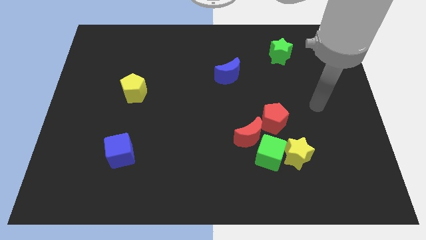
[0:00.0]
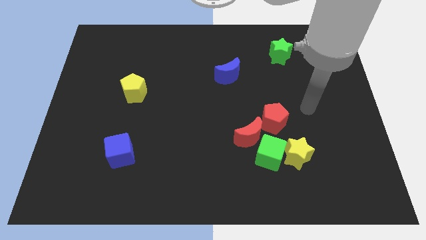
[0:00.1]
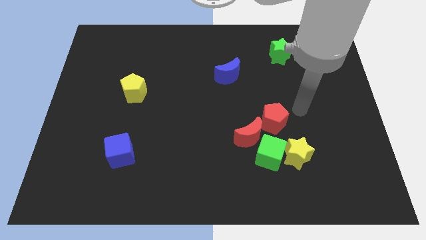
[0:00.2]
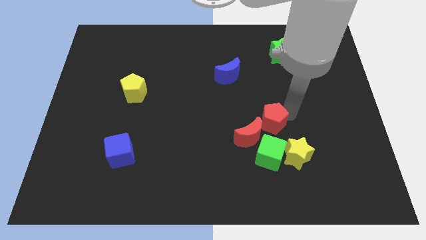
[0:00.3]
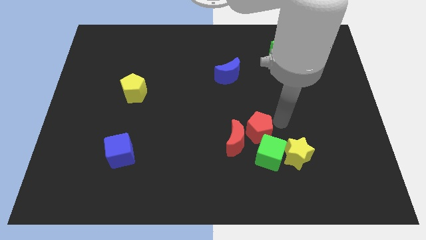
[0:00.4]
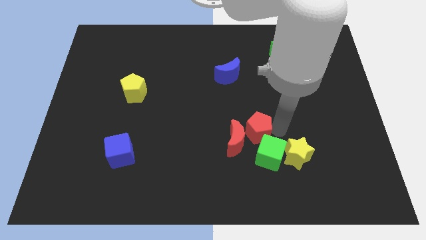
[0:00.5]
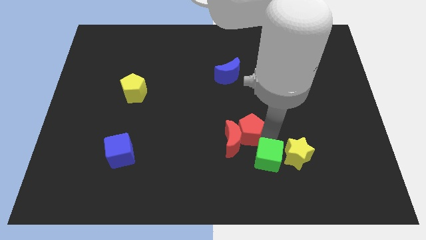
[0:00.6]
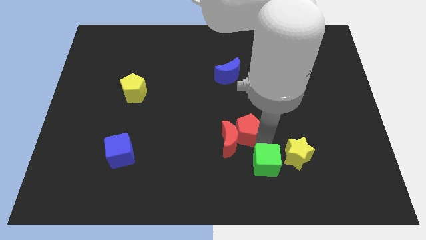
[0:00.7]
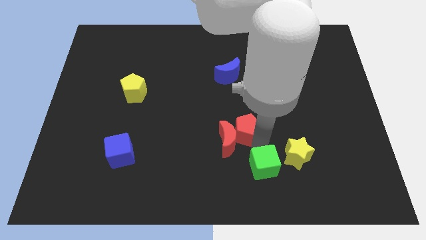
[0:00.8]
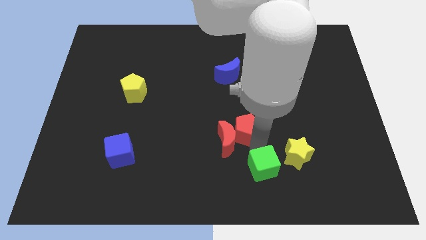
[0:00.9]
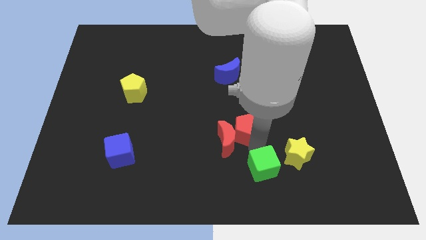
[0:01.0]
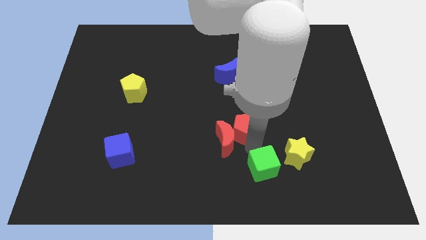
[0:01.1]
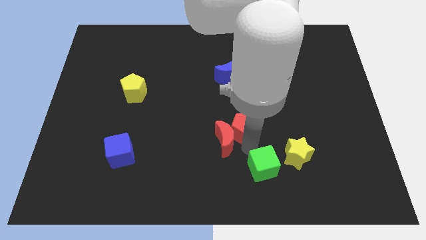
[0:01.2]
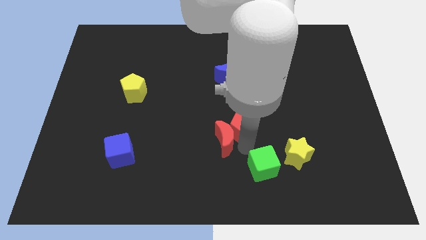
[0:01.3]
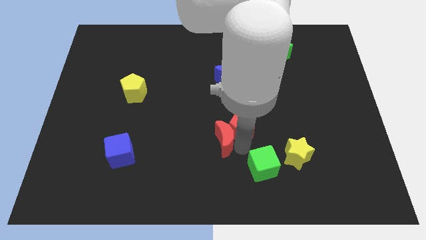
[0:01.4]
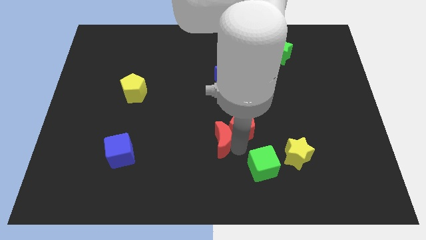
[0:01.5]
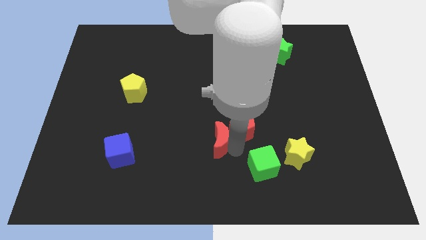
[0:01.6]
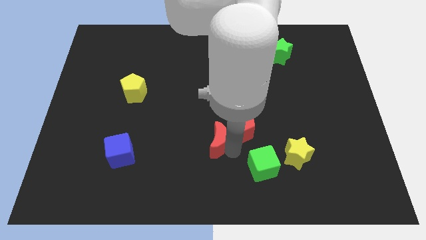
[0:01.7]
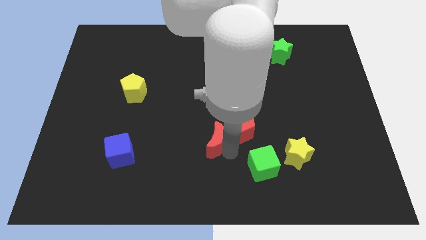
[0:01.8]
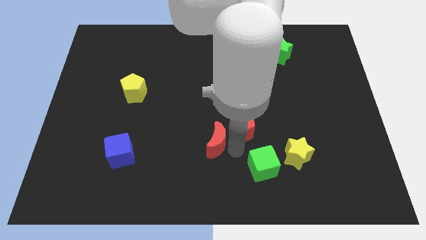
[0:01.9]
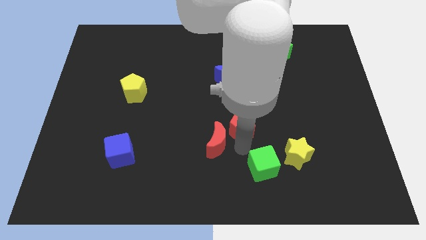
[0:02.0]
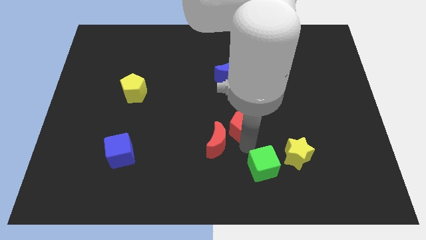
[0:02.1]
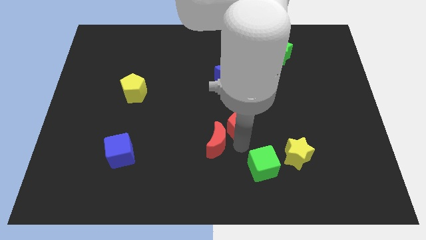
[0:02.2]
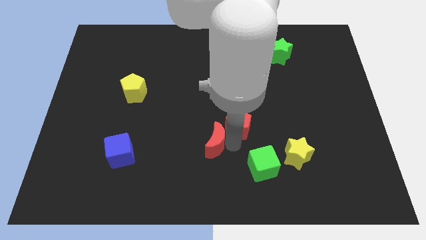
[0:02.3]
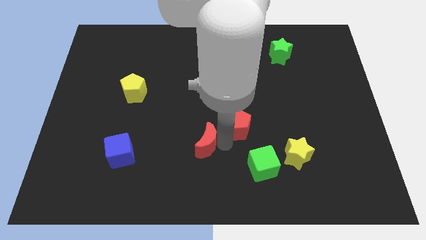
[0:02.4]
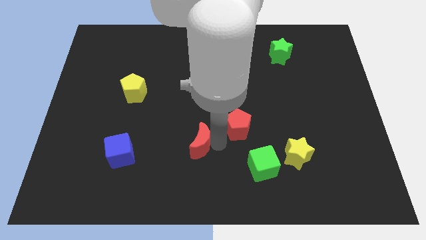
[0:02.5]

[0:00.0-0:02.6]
pull the red moon apart from the green cube and red pentagon

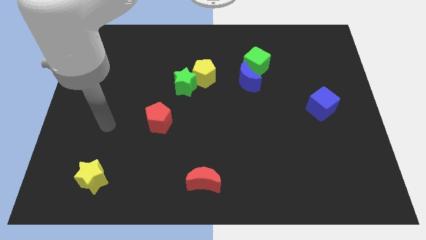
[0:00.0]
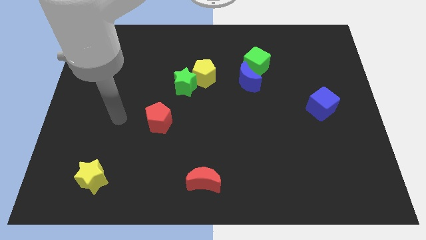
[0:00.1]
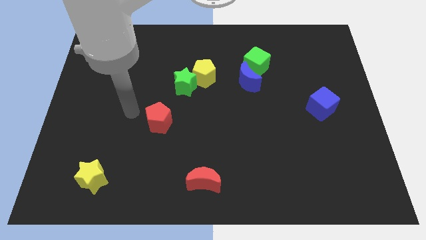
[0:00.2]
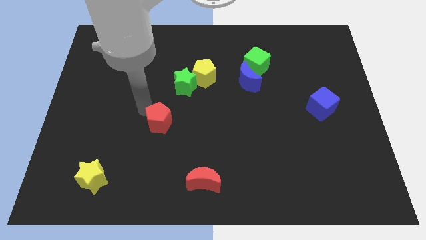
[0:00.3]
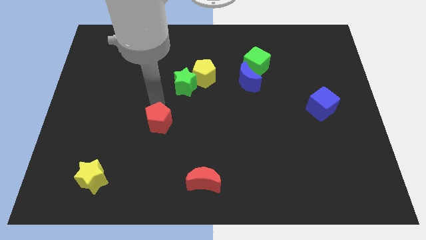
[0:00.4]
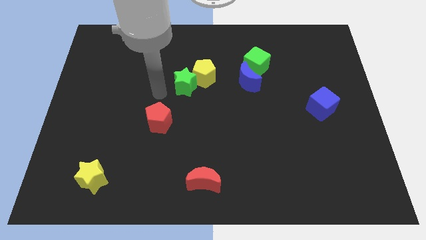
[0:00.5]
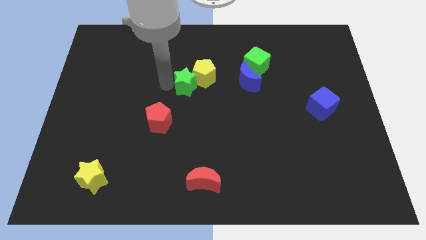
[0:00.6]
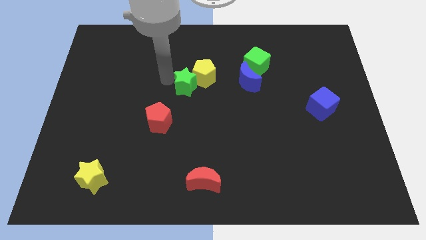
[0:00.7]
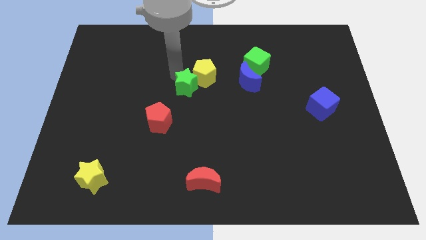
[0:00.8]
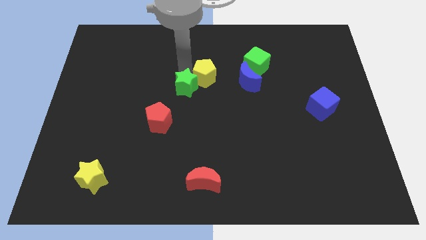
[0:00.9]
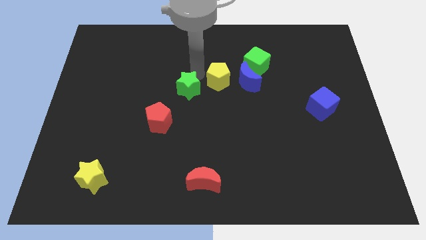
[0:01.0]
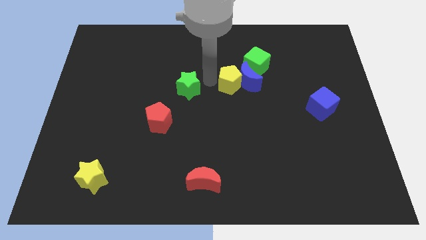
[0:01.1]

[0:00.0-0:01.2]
move the green star away from the yellow pentagon

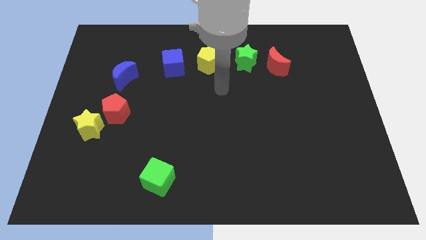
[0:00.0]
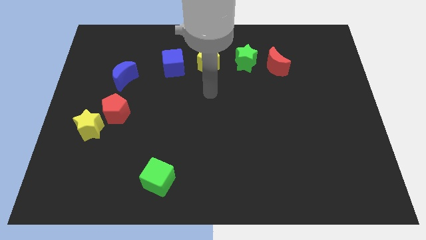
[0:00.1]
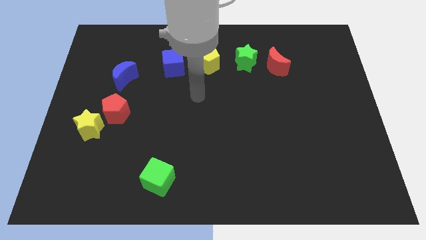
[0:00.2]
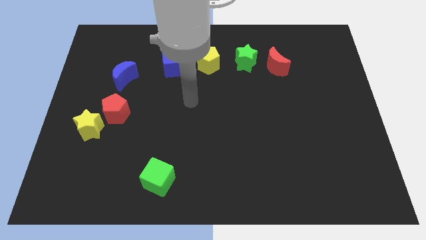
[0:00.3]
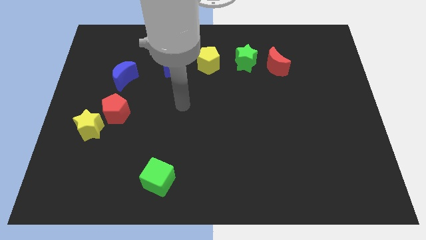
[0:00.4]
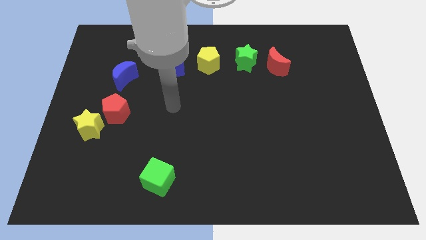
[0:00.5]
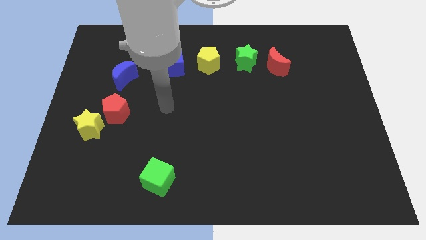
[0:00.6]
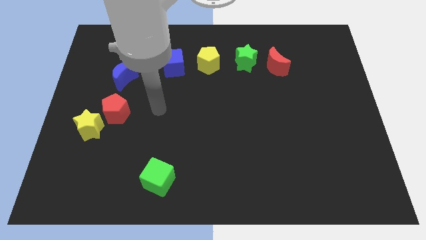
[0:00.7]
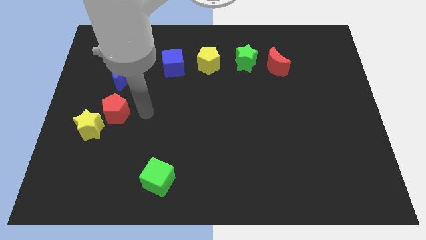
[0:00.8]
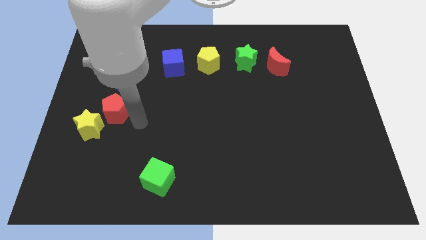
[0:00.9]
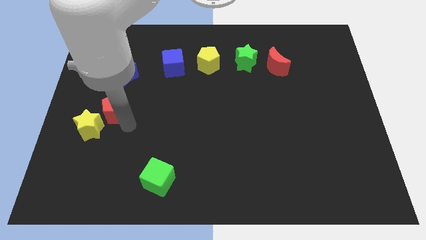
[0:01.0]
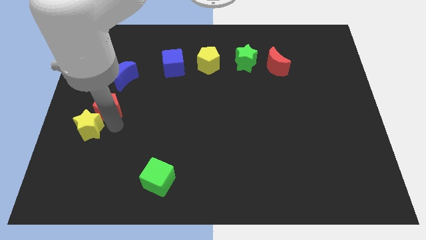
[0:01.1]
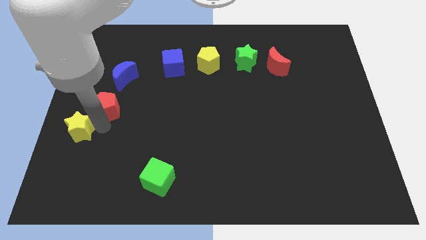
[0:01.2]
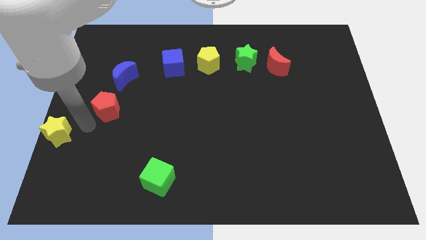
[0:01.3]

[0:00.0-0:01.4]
separate the red pentagon from the yellow star

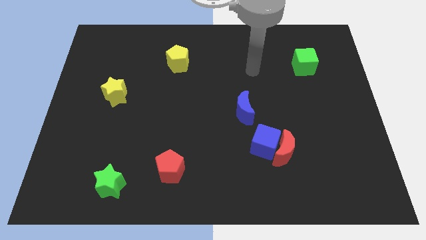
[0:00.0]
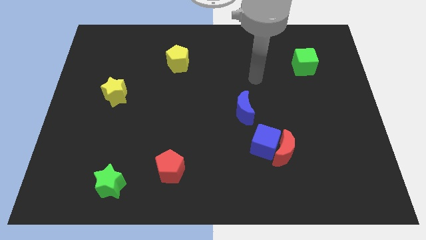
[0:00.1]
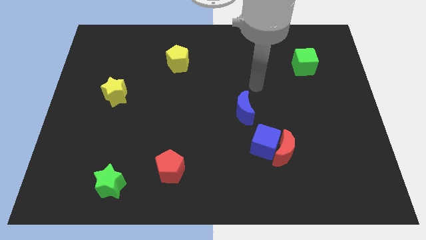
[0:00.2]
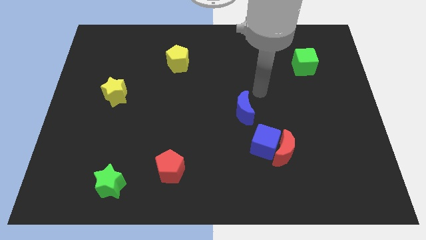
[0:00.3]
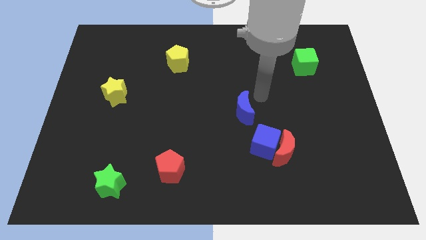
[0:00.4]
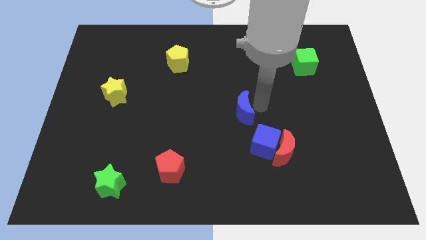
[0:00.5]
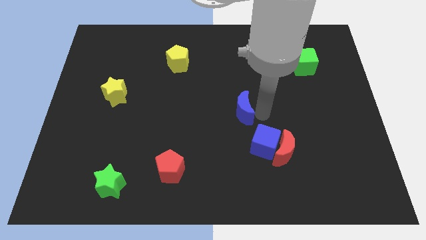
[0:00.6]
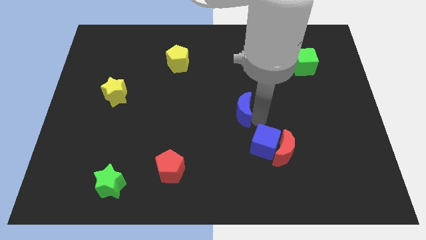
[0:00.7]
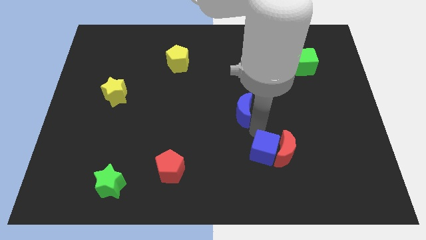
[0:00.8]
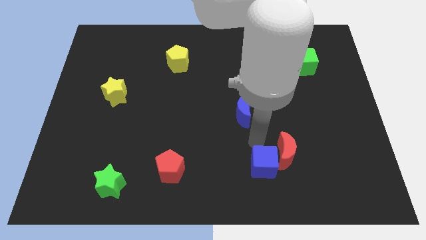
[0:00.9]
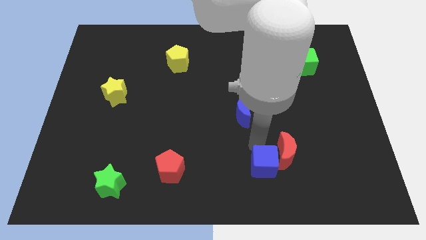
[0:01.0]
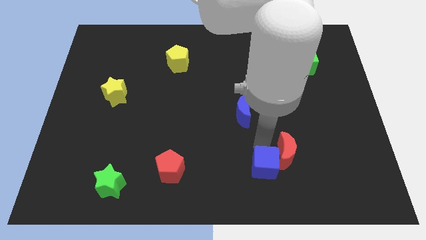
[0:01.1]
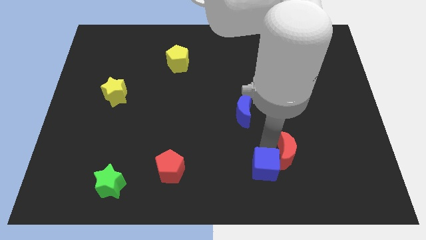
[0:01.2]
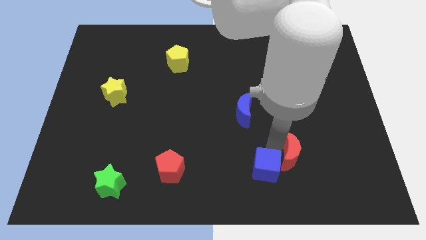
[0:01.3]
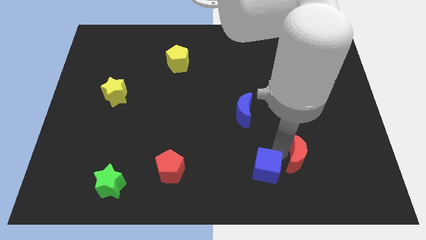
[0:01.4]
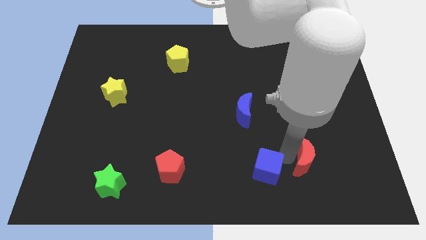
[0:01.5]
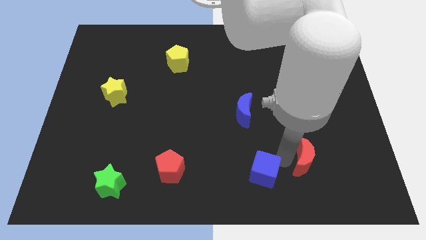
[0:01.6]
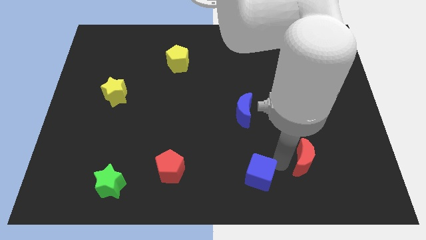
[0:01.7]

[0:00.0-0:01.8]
move the red moon away from the blue cube

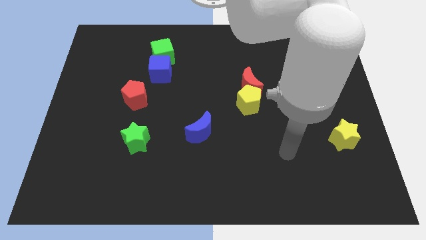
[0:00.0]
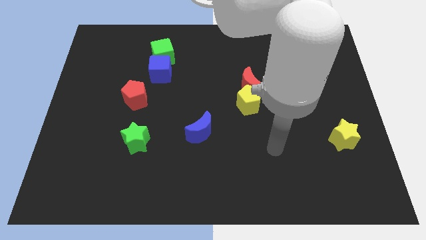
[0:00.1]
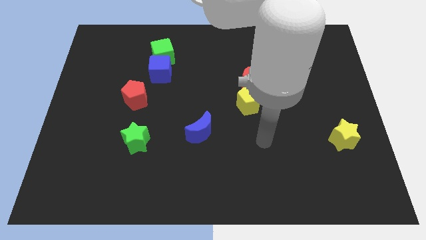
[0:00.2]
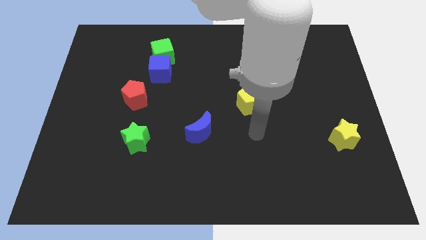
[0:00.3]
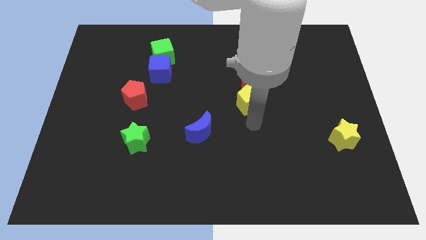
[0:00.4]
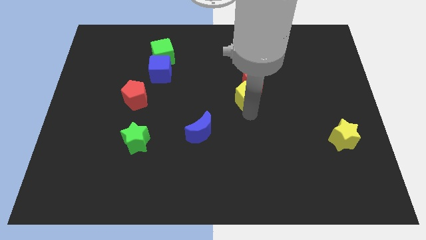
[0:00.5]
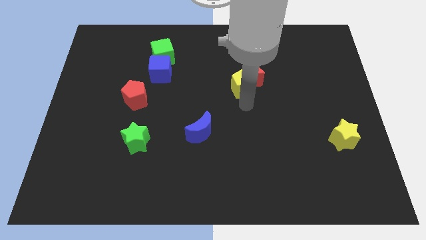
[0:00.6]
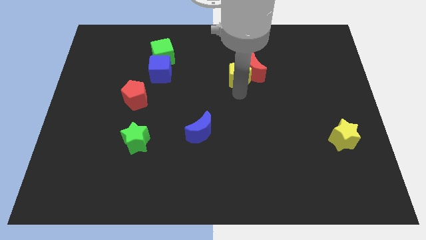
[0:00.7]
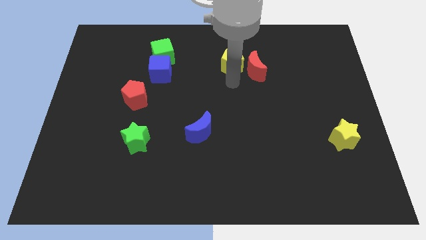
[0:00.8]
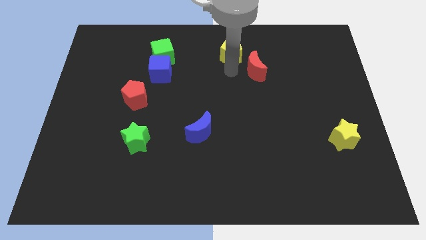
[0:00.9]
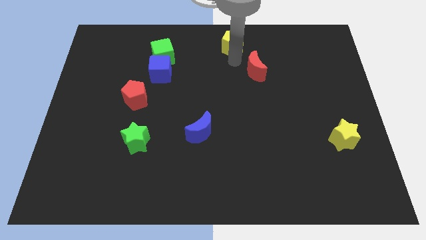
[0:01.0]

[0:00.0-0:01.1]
separate the red moon from the yellow pentagon

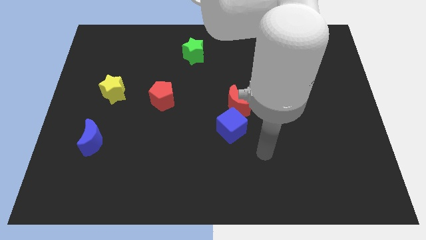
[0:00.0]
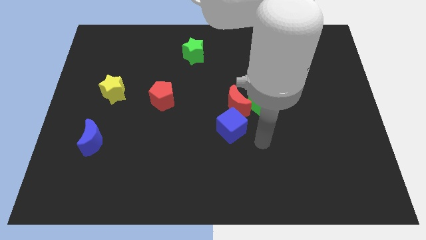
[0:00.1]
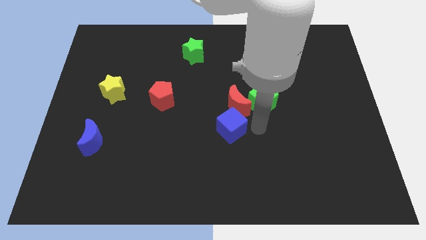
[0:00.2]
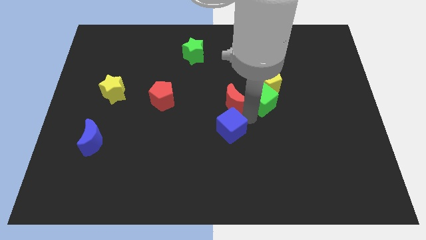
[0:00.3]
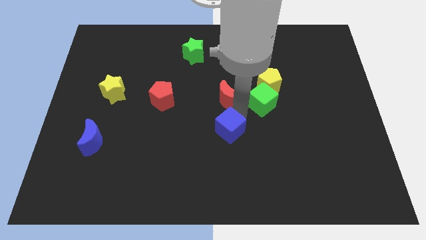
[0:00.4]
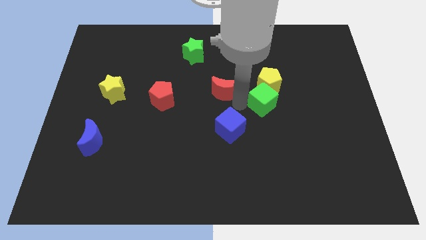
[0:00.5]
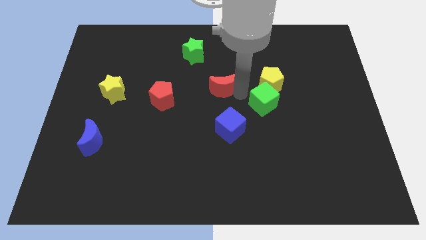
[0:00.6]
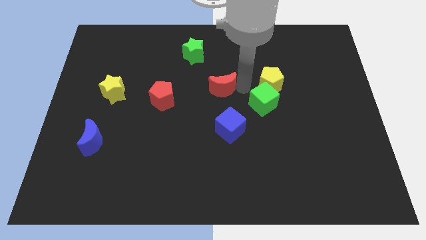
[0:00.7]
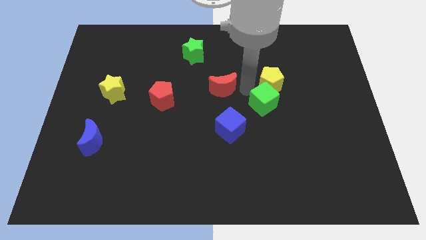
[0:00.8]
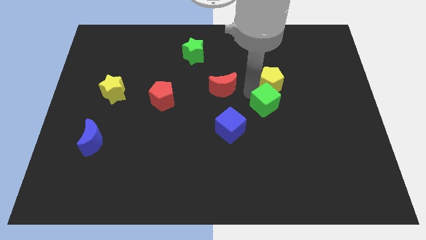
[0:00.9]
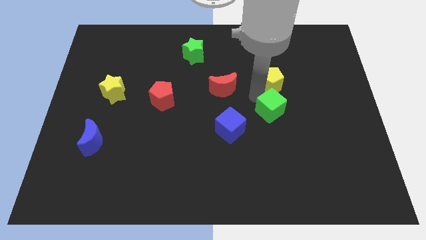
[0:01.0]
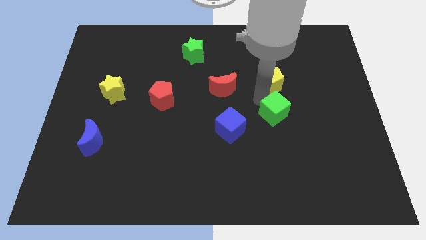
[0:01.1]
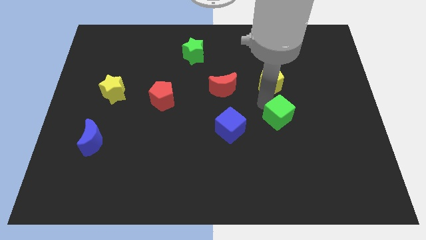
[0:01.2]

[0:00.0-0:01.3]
move the green cube away from the yellow pentagon and red moon
